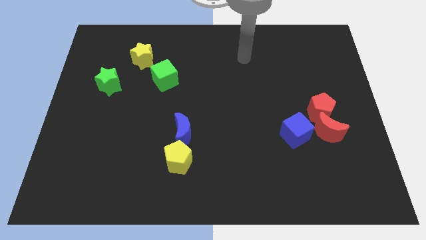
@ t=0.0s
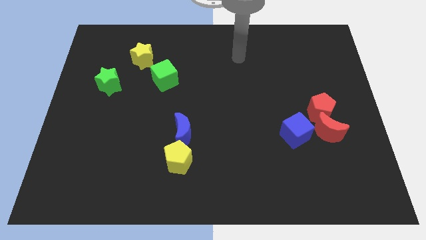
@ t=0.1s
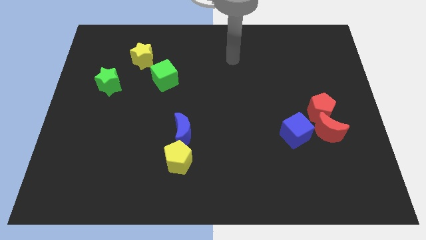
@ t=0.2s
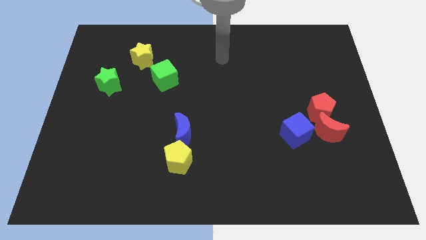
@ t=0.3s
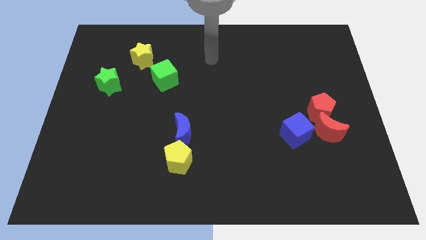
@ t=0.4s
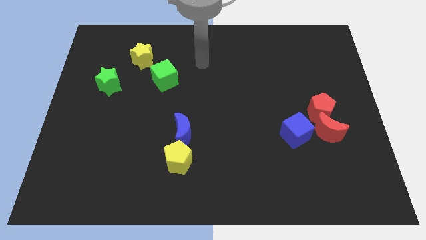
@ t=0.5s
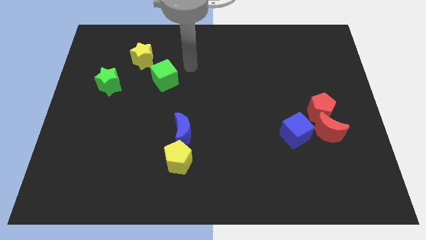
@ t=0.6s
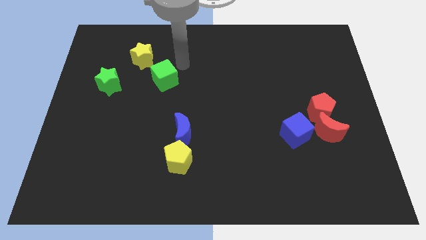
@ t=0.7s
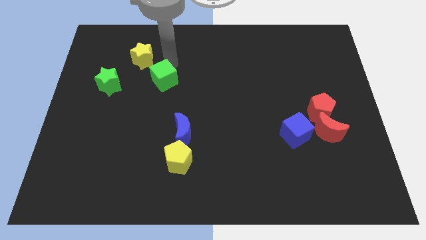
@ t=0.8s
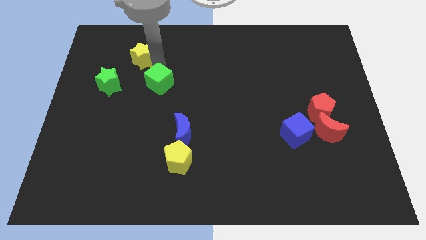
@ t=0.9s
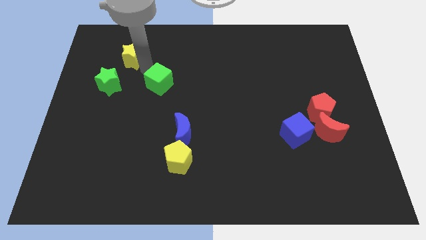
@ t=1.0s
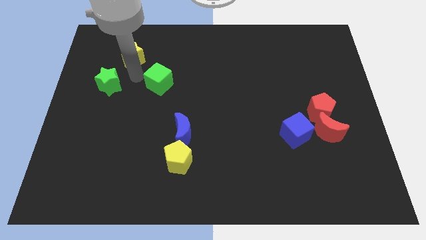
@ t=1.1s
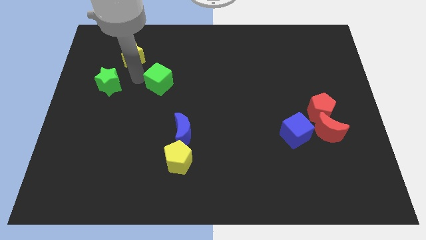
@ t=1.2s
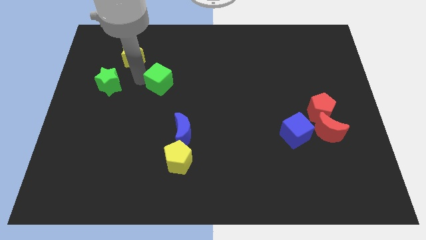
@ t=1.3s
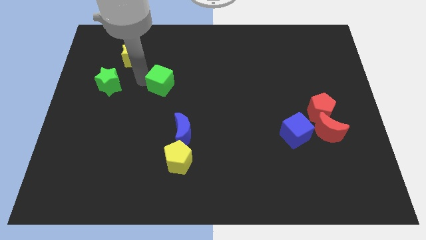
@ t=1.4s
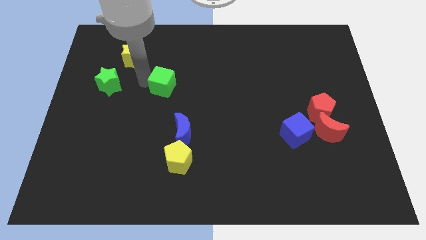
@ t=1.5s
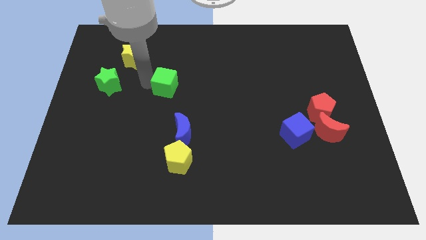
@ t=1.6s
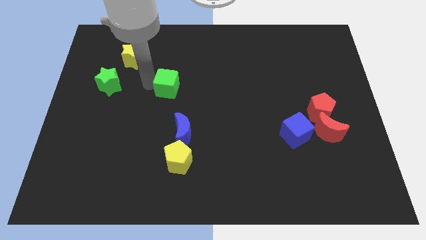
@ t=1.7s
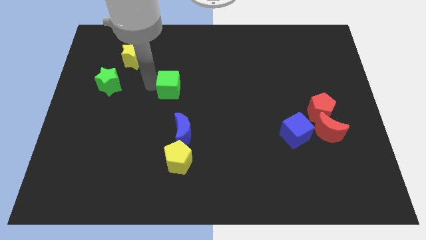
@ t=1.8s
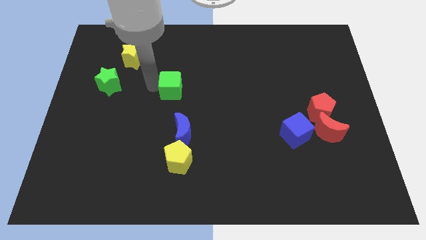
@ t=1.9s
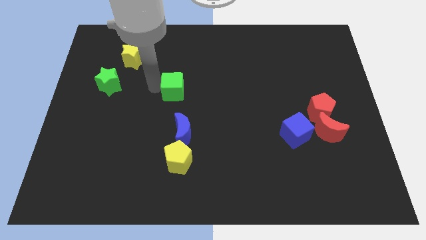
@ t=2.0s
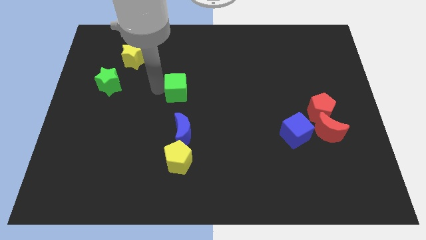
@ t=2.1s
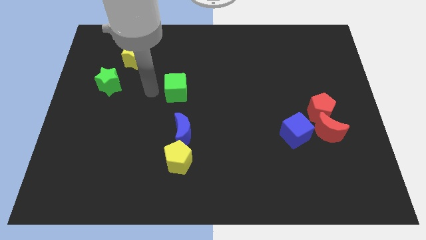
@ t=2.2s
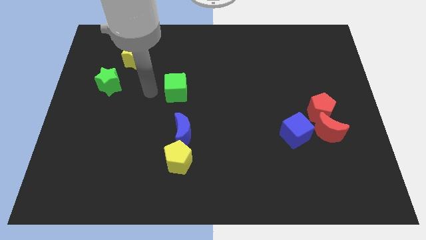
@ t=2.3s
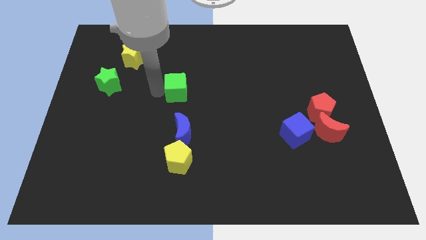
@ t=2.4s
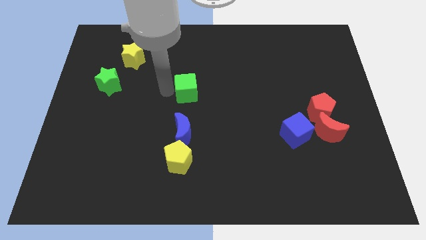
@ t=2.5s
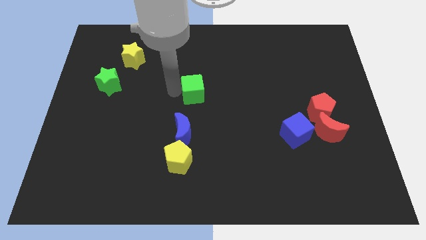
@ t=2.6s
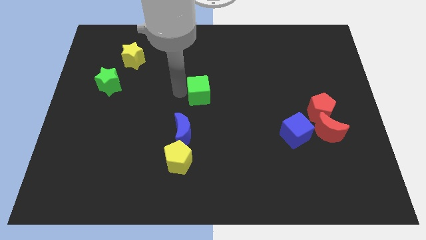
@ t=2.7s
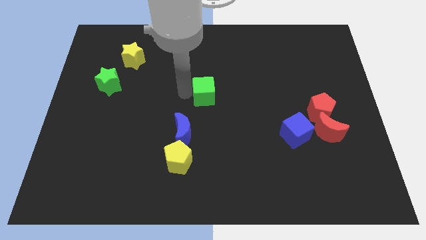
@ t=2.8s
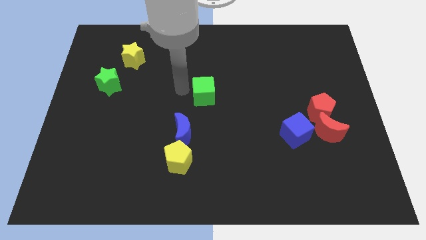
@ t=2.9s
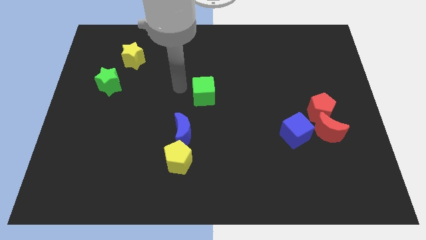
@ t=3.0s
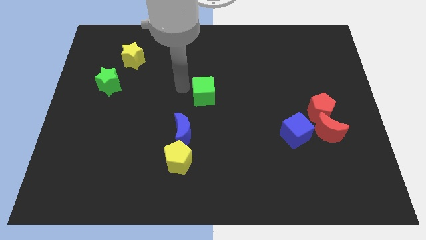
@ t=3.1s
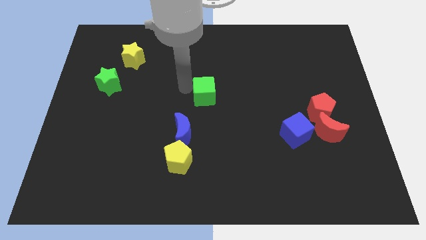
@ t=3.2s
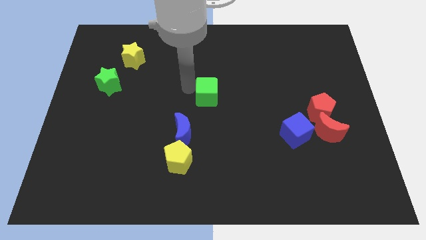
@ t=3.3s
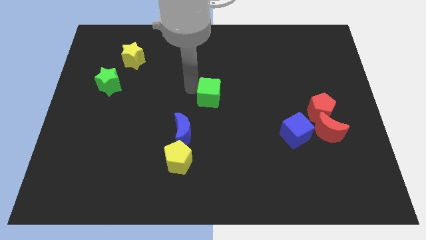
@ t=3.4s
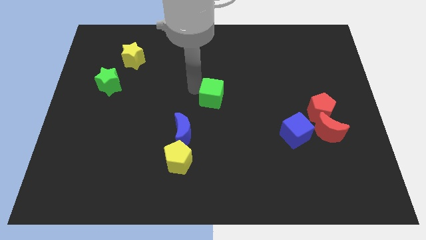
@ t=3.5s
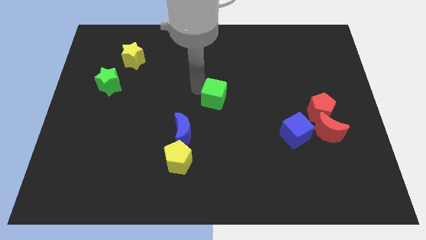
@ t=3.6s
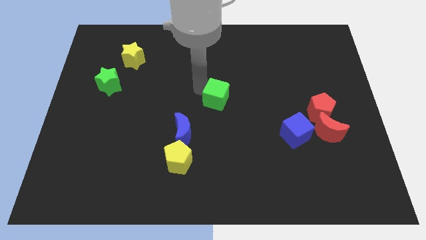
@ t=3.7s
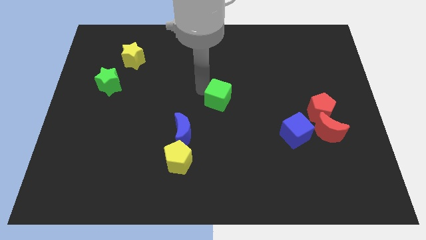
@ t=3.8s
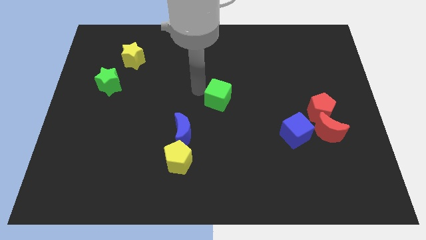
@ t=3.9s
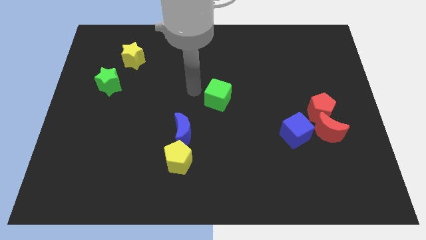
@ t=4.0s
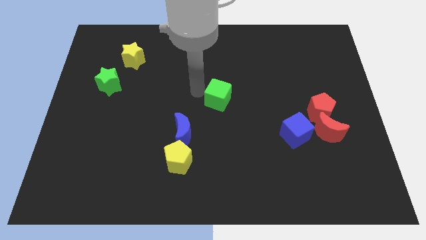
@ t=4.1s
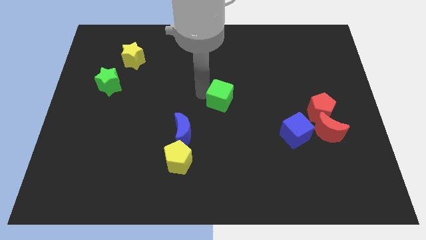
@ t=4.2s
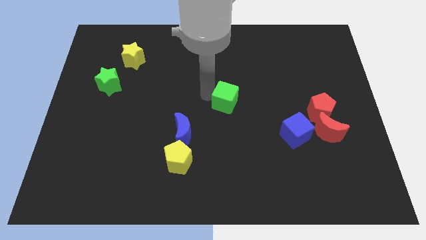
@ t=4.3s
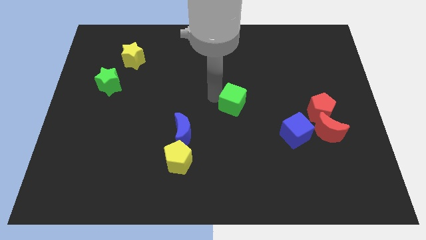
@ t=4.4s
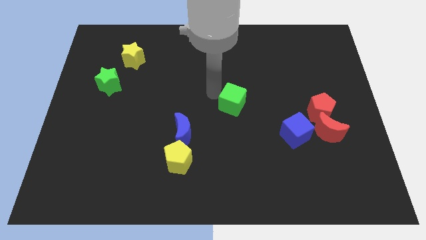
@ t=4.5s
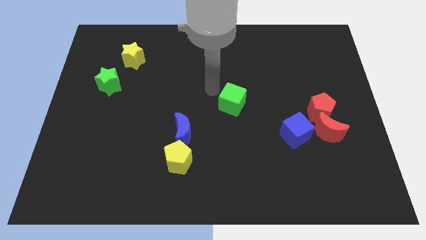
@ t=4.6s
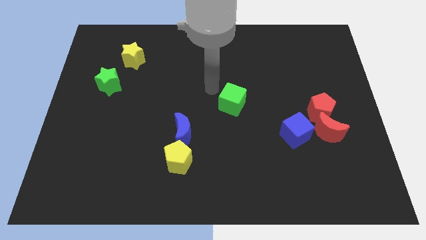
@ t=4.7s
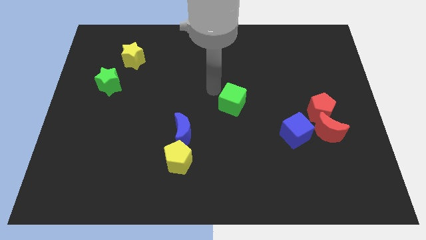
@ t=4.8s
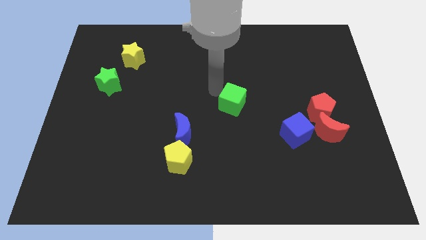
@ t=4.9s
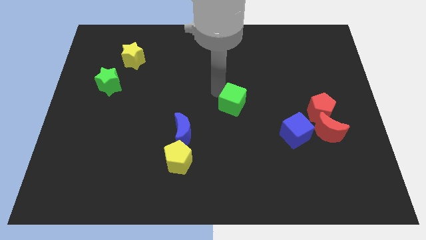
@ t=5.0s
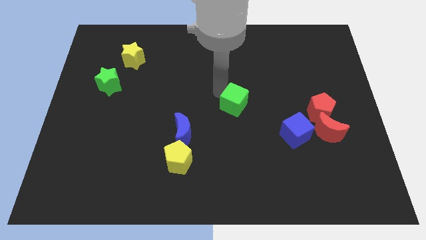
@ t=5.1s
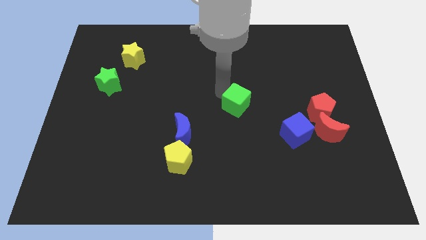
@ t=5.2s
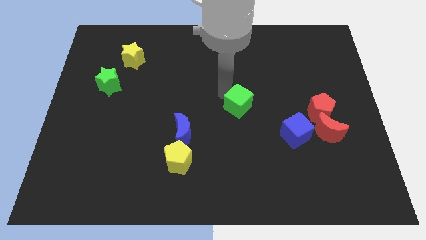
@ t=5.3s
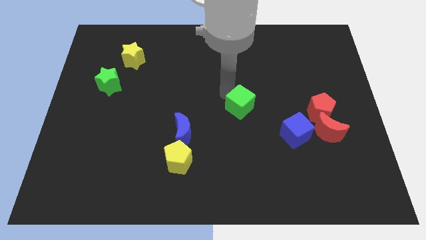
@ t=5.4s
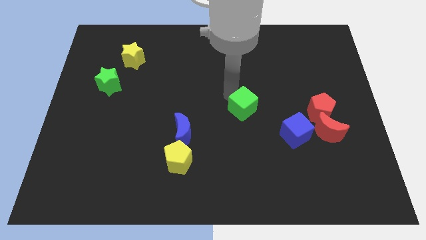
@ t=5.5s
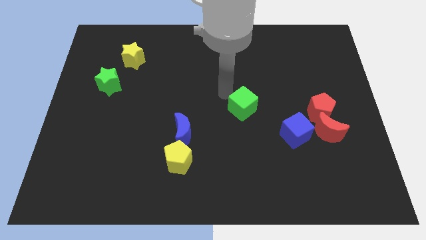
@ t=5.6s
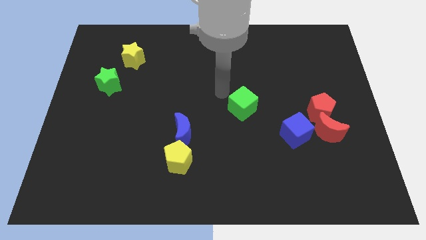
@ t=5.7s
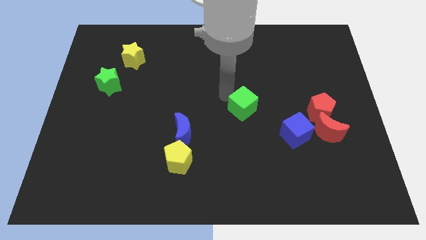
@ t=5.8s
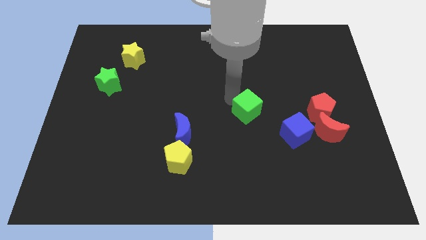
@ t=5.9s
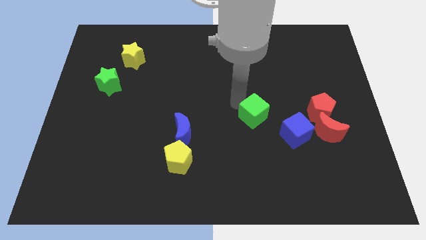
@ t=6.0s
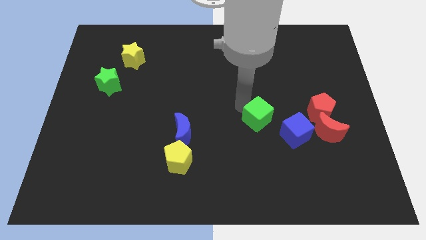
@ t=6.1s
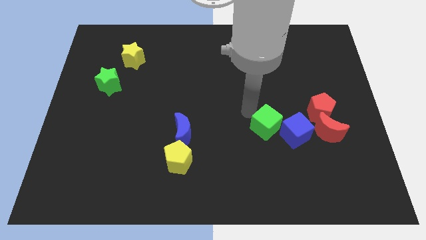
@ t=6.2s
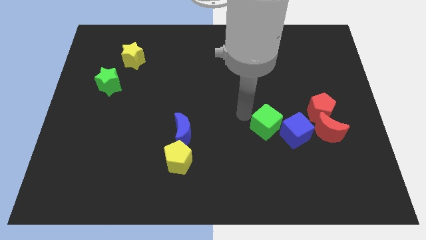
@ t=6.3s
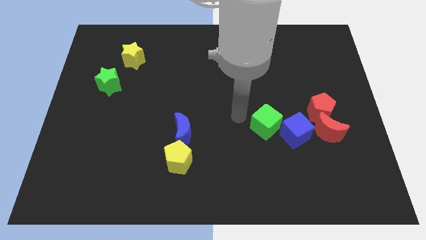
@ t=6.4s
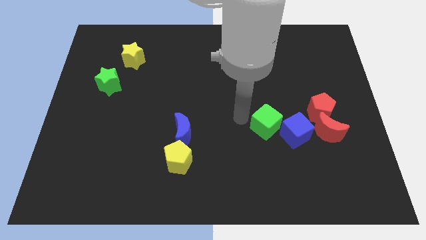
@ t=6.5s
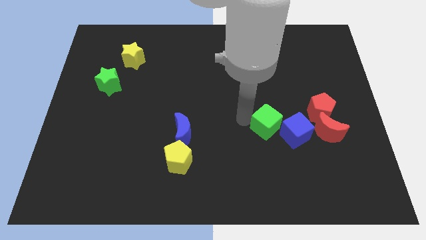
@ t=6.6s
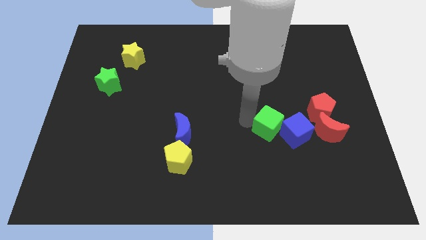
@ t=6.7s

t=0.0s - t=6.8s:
put the green cube close to the blue cube

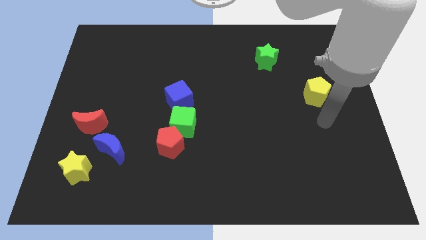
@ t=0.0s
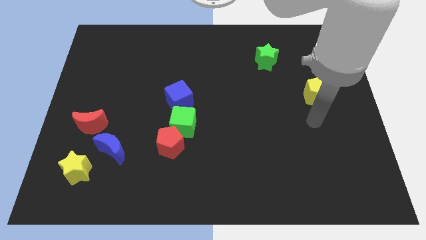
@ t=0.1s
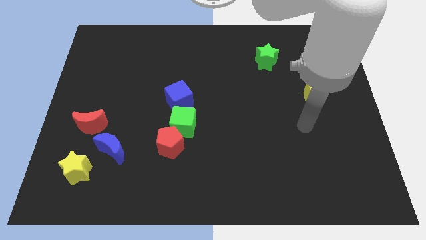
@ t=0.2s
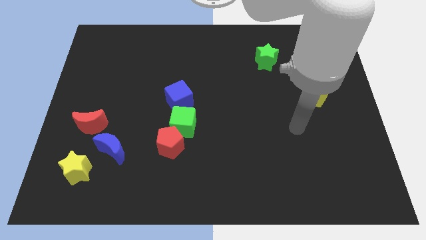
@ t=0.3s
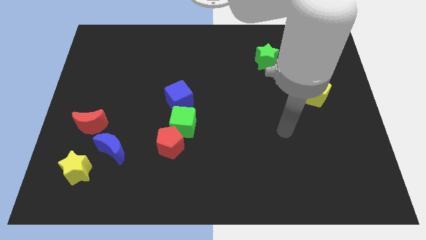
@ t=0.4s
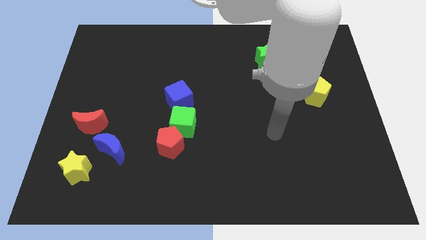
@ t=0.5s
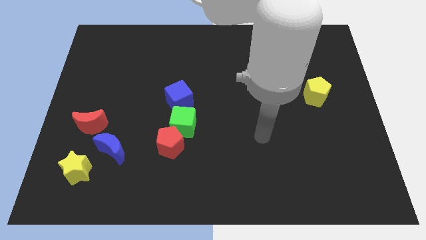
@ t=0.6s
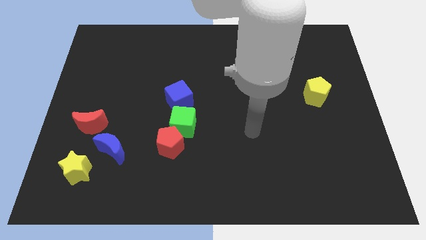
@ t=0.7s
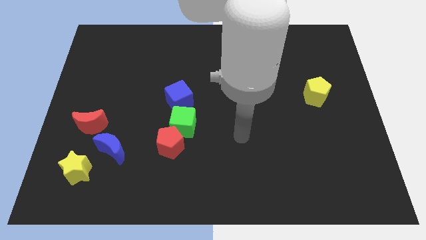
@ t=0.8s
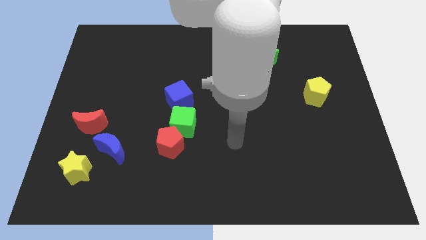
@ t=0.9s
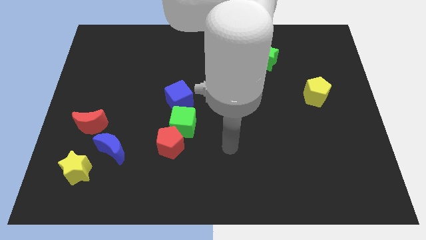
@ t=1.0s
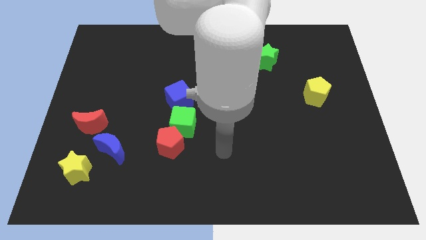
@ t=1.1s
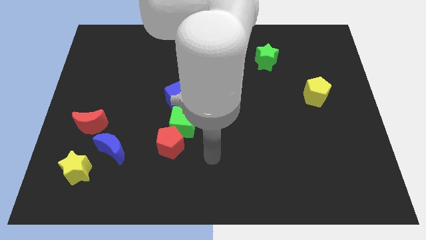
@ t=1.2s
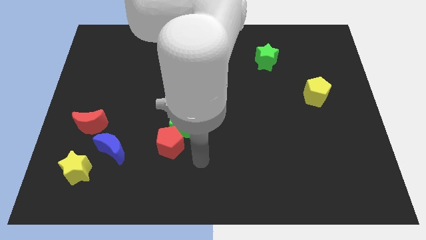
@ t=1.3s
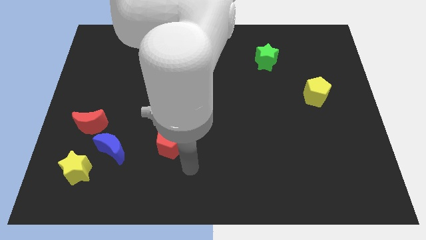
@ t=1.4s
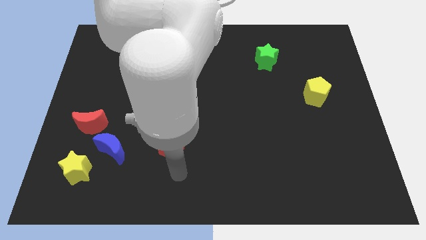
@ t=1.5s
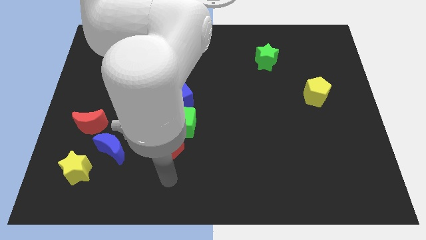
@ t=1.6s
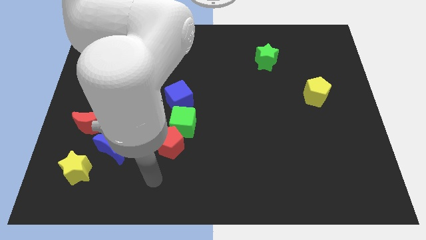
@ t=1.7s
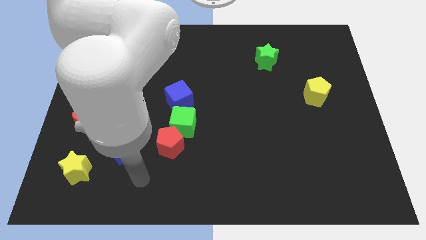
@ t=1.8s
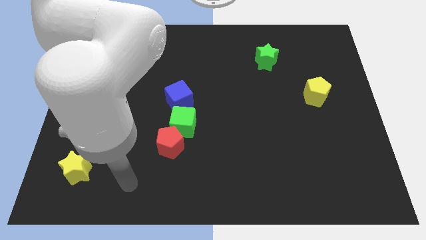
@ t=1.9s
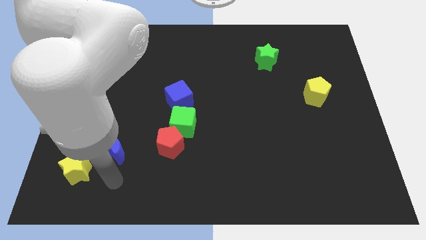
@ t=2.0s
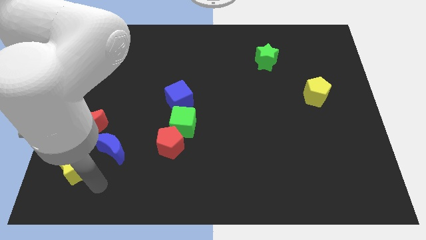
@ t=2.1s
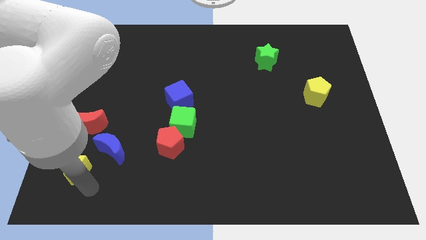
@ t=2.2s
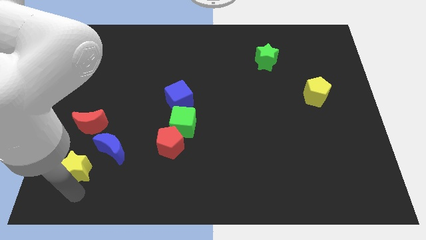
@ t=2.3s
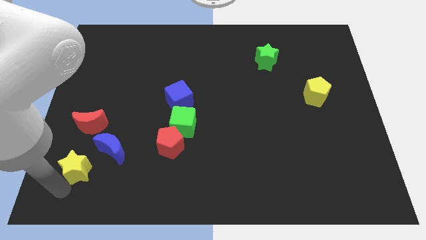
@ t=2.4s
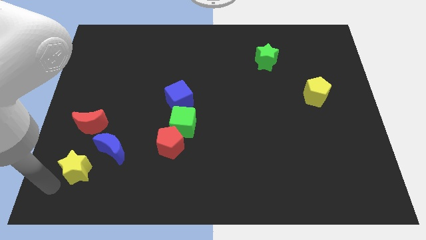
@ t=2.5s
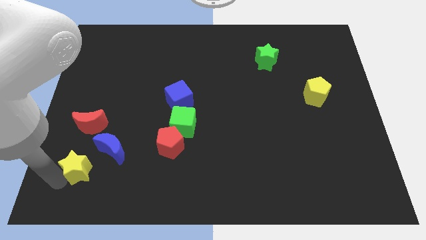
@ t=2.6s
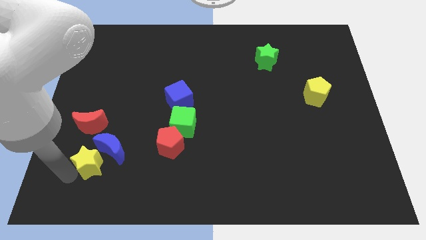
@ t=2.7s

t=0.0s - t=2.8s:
move the yellow star close to the blue moon
